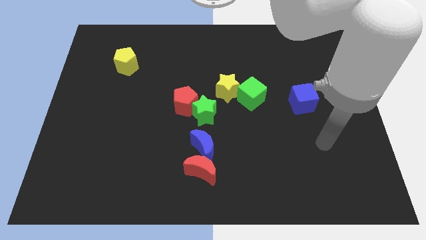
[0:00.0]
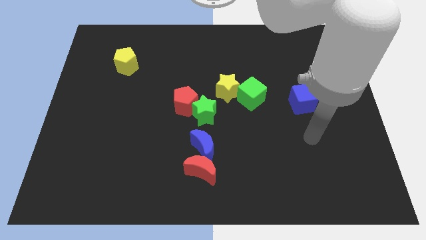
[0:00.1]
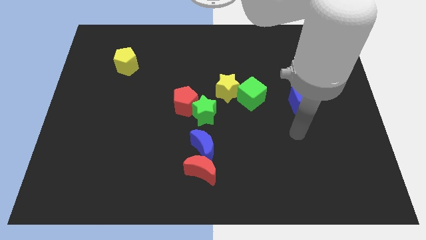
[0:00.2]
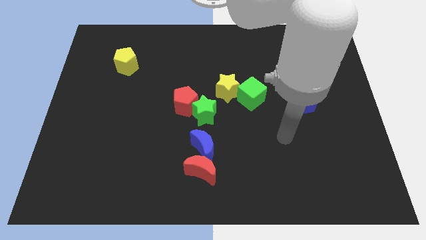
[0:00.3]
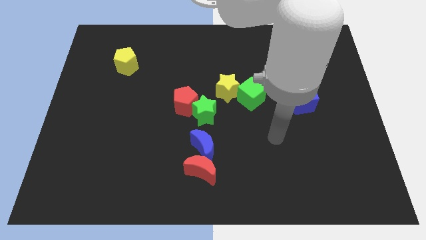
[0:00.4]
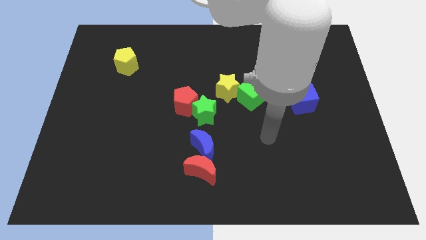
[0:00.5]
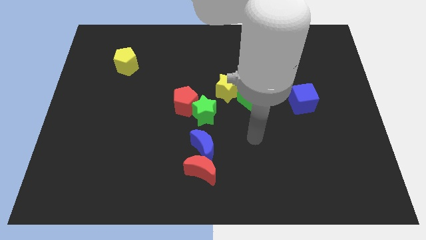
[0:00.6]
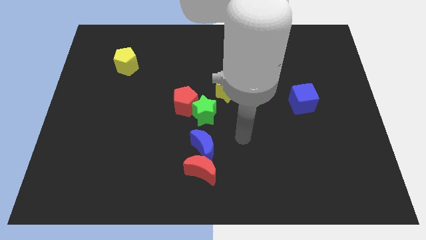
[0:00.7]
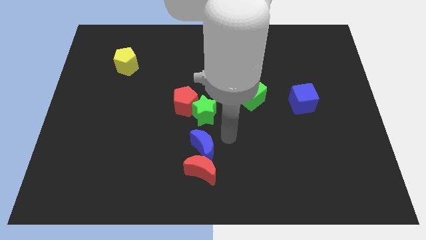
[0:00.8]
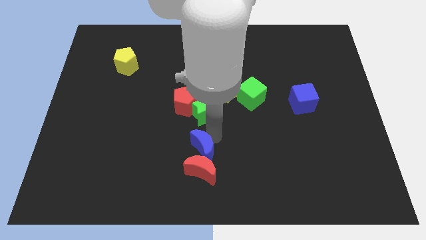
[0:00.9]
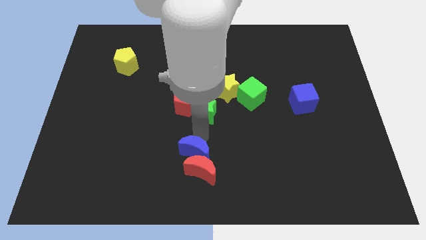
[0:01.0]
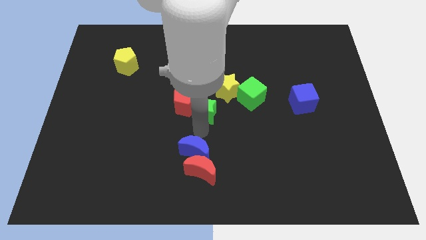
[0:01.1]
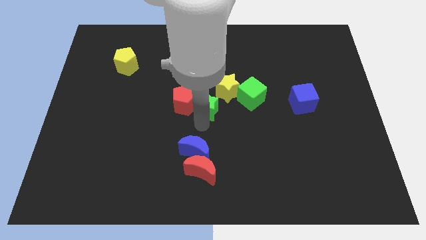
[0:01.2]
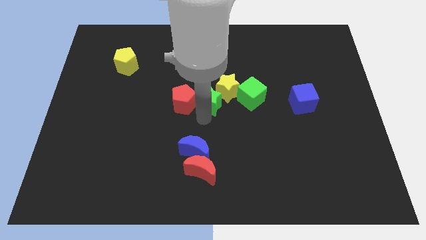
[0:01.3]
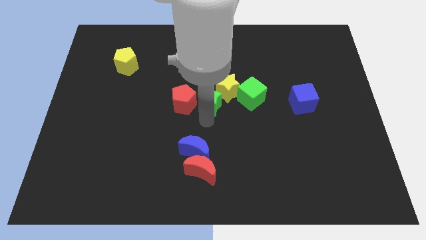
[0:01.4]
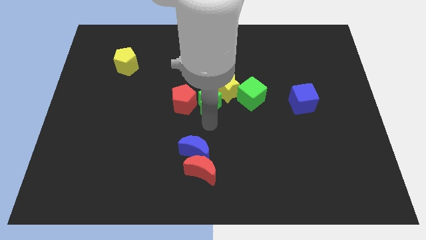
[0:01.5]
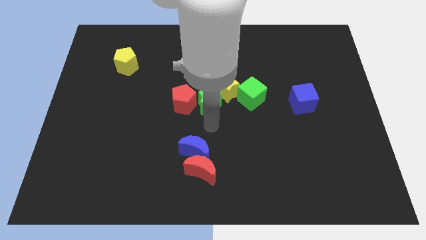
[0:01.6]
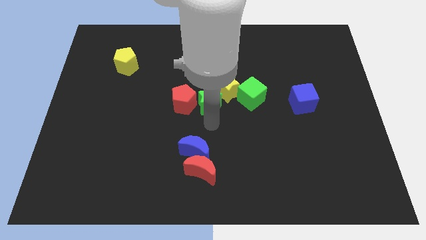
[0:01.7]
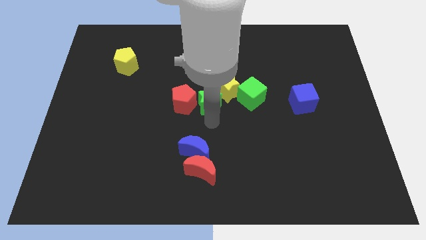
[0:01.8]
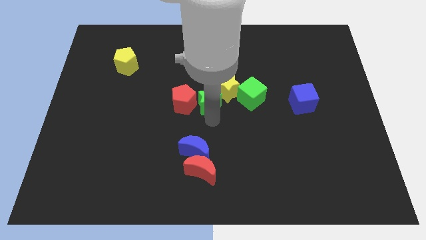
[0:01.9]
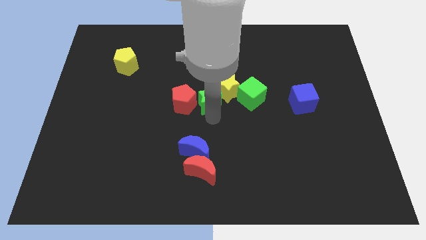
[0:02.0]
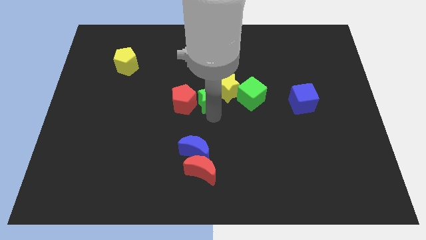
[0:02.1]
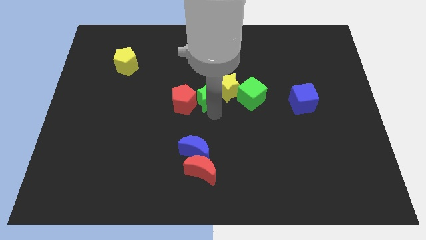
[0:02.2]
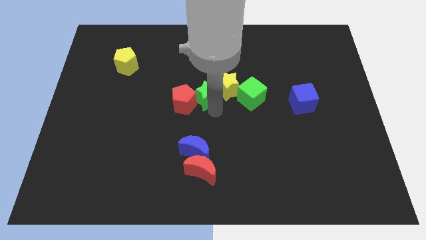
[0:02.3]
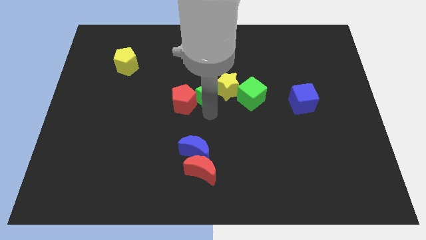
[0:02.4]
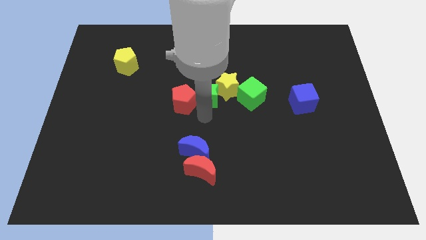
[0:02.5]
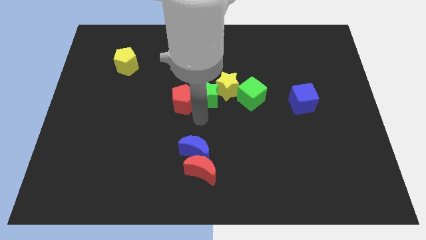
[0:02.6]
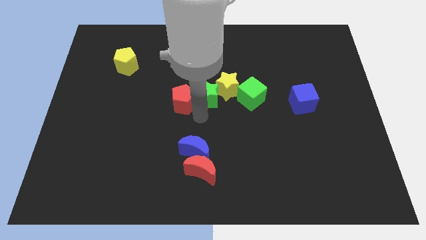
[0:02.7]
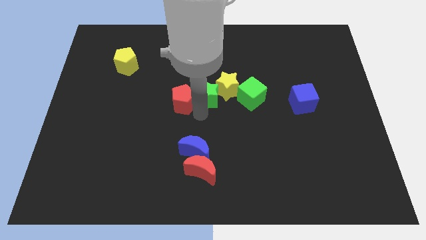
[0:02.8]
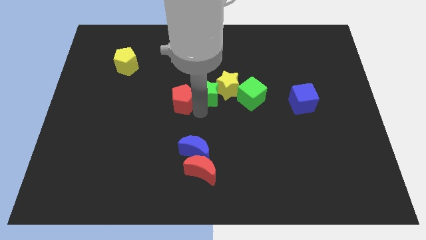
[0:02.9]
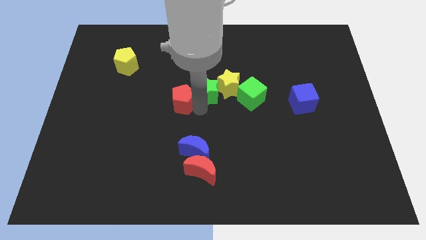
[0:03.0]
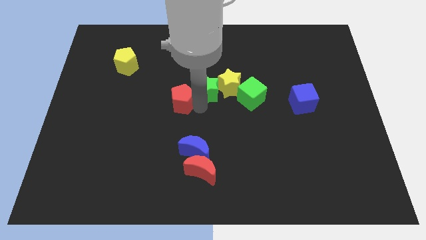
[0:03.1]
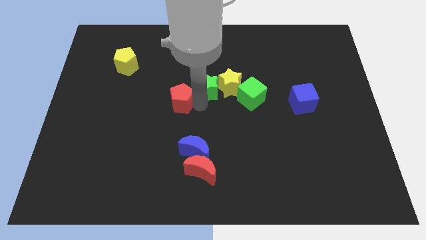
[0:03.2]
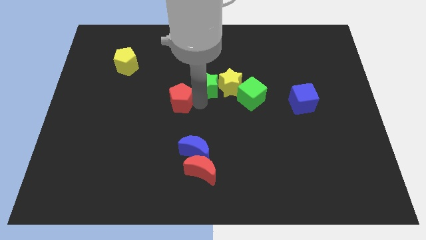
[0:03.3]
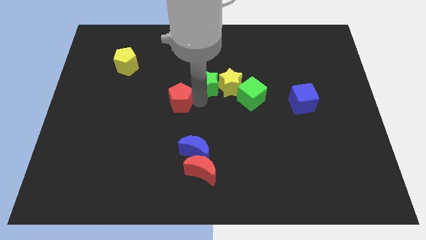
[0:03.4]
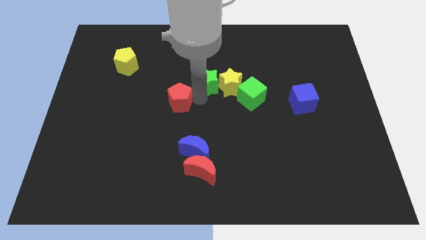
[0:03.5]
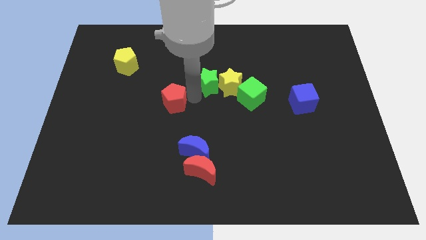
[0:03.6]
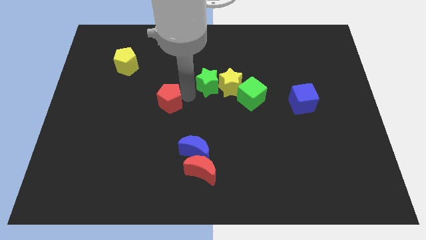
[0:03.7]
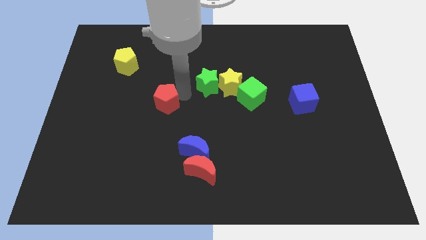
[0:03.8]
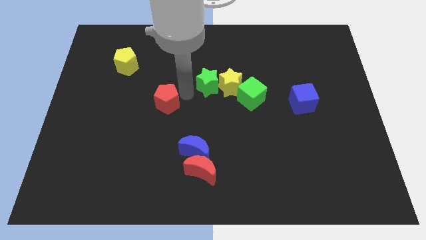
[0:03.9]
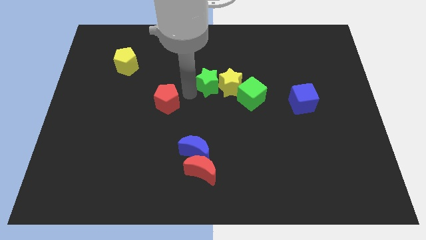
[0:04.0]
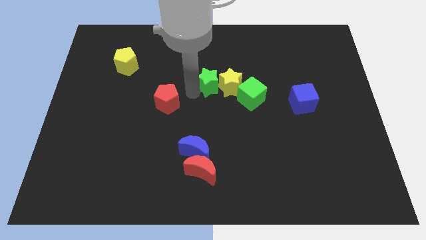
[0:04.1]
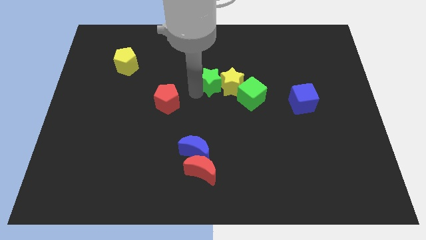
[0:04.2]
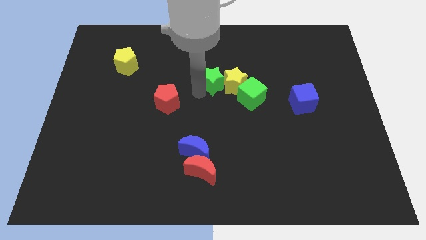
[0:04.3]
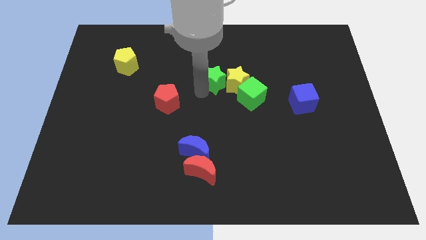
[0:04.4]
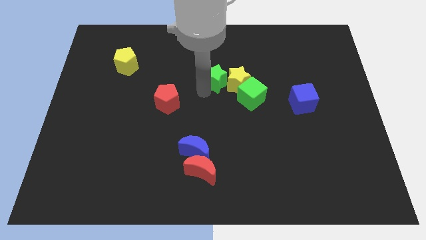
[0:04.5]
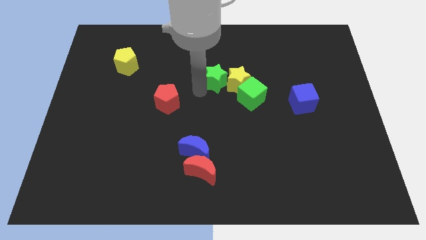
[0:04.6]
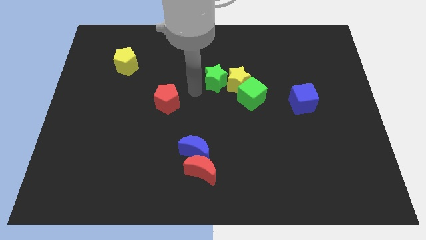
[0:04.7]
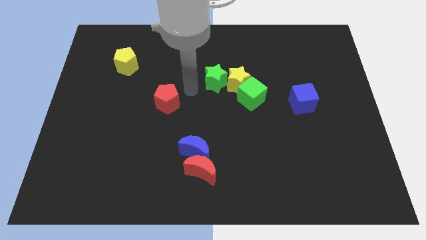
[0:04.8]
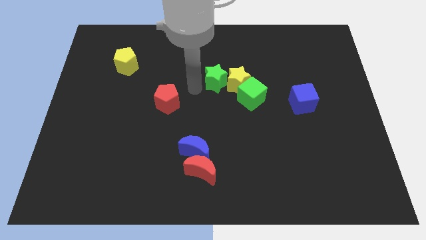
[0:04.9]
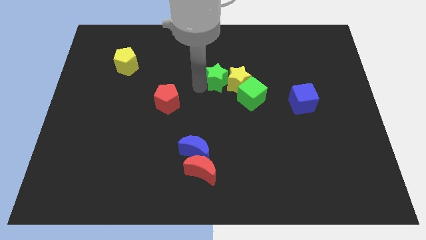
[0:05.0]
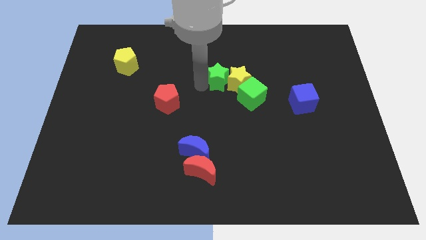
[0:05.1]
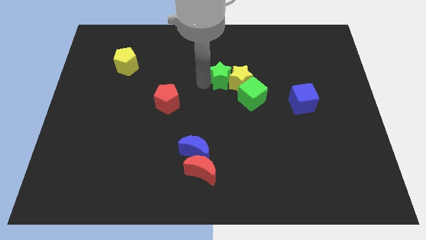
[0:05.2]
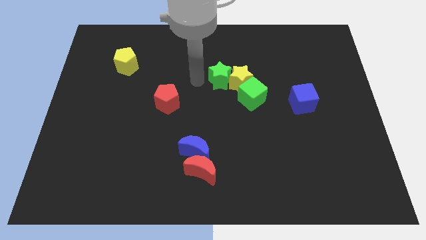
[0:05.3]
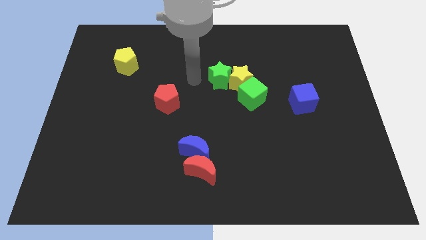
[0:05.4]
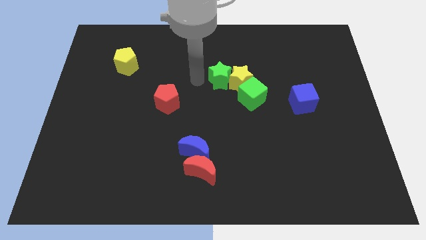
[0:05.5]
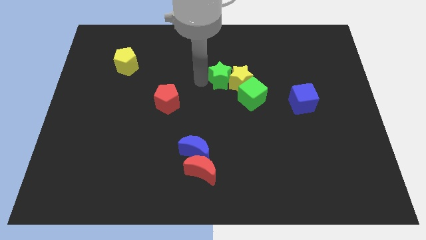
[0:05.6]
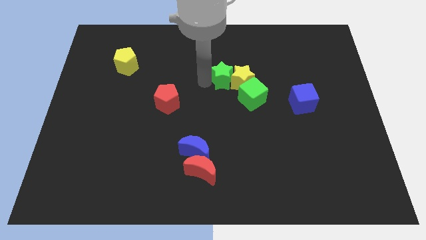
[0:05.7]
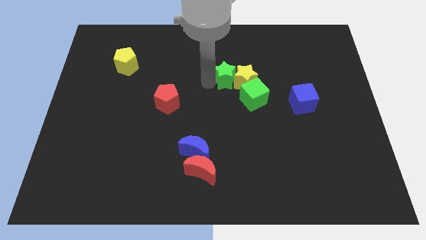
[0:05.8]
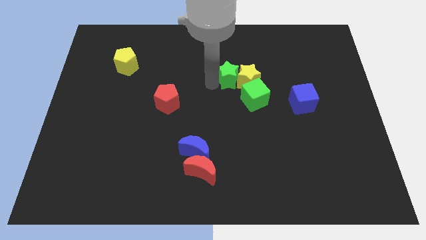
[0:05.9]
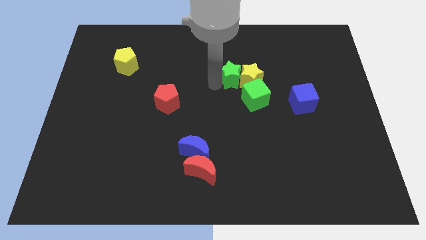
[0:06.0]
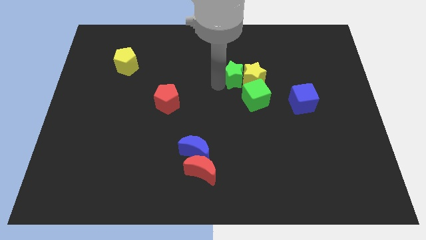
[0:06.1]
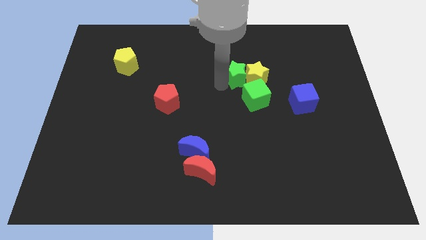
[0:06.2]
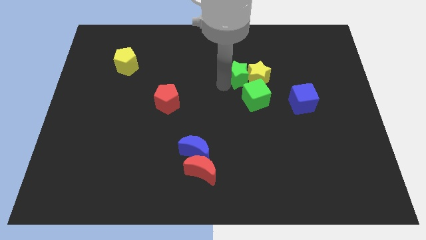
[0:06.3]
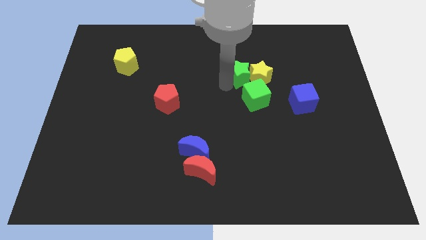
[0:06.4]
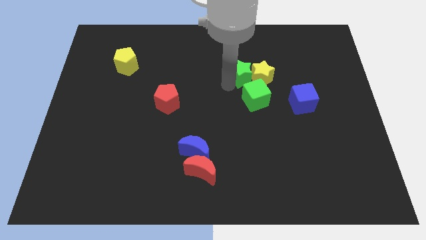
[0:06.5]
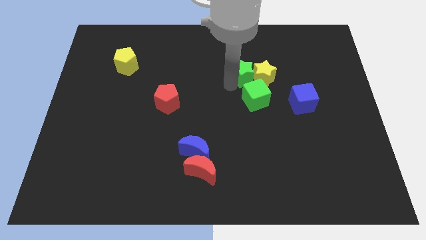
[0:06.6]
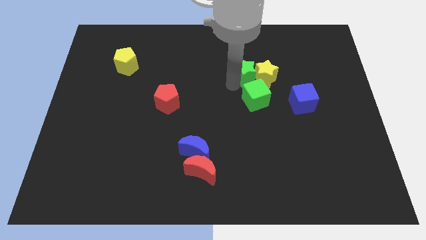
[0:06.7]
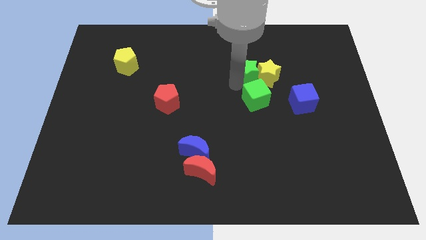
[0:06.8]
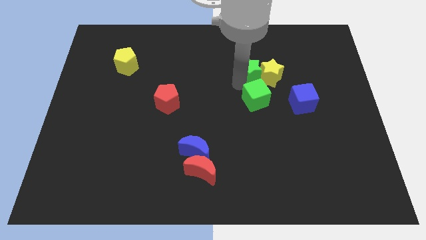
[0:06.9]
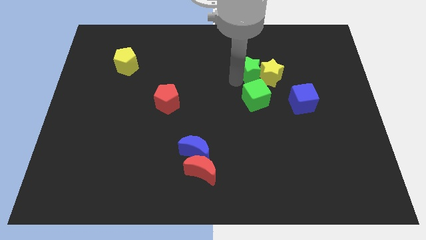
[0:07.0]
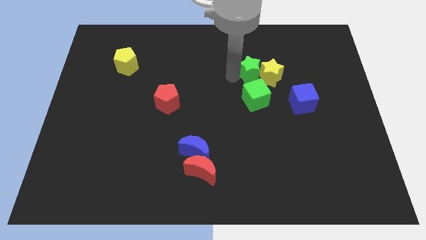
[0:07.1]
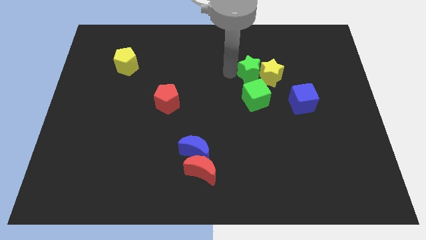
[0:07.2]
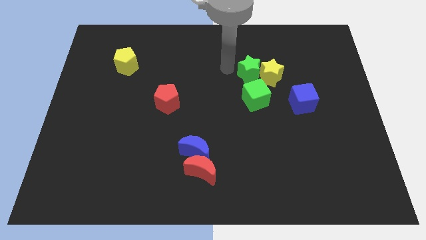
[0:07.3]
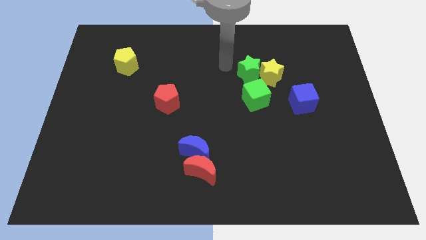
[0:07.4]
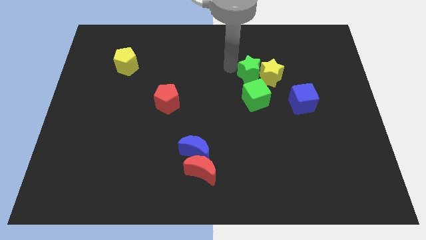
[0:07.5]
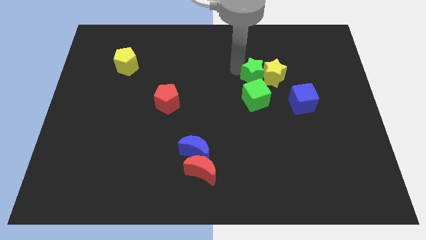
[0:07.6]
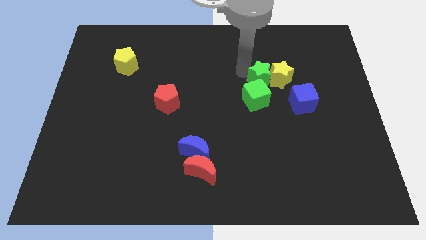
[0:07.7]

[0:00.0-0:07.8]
push the green star diagonally up and to the right of the green cube
